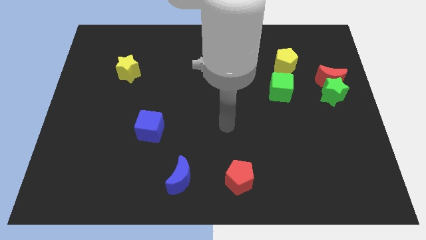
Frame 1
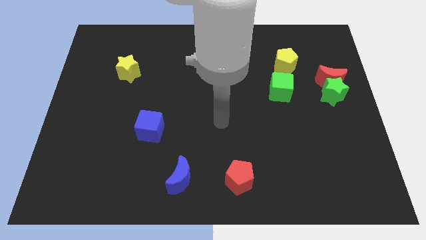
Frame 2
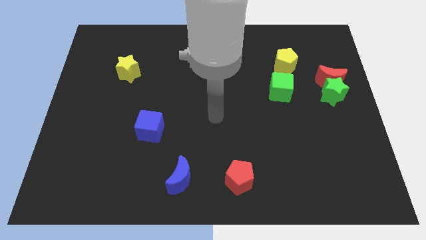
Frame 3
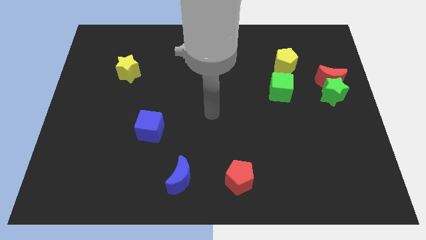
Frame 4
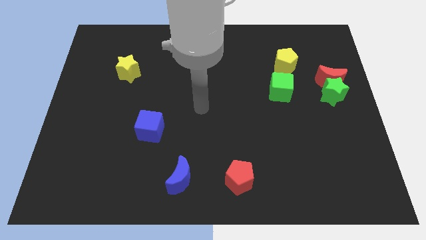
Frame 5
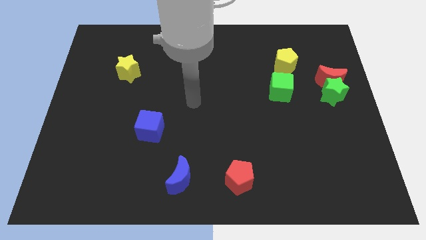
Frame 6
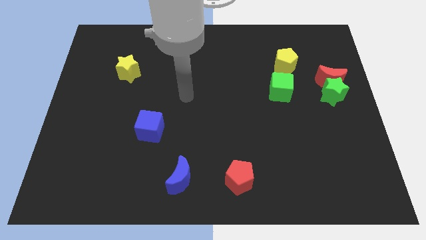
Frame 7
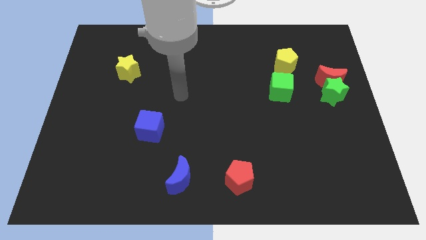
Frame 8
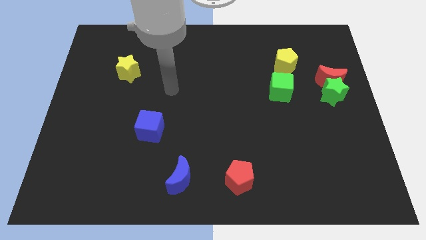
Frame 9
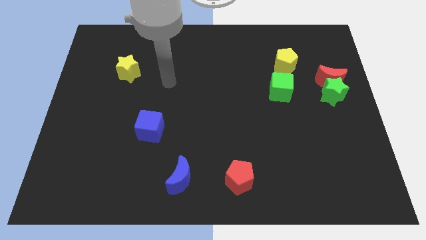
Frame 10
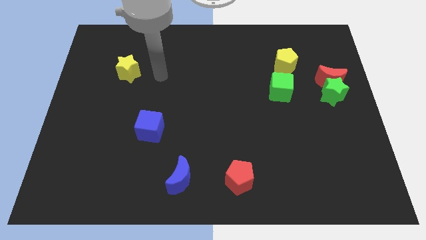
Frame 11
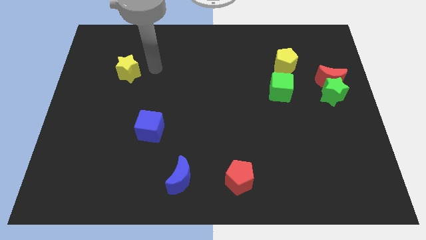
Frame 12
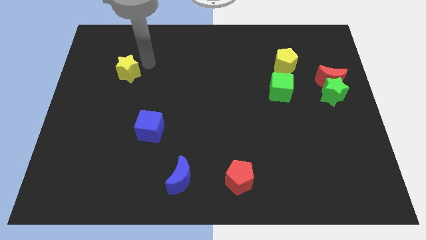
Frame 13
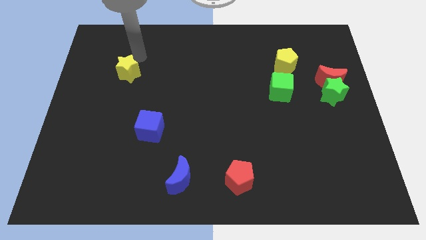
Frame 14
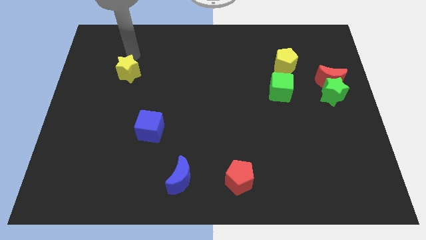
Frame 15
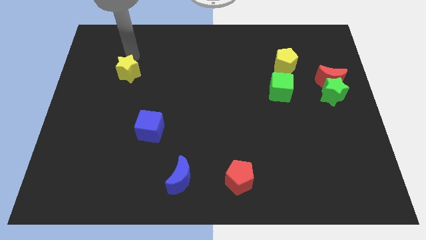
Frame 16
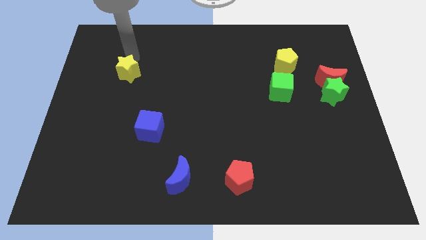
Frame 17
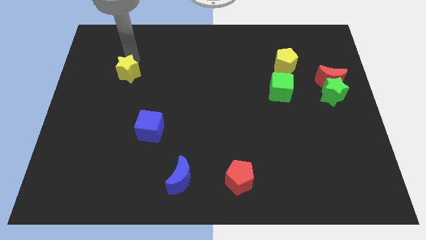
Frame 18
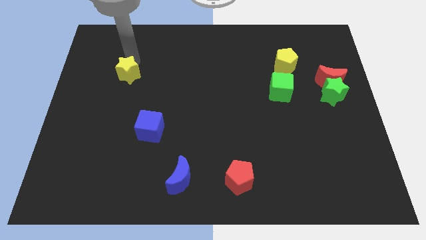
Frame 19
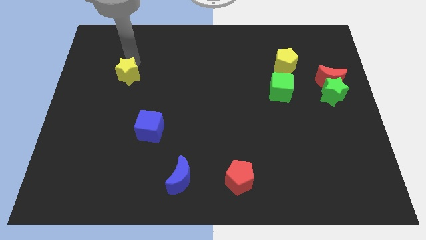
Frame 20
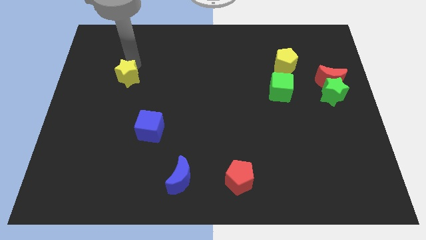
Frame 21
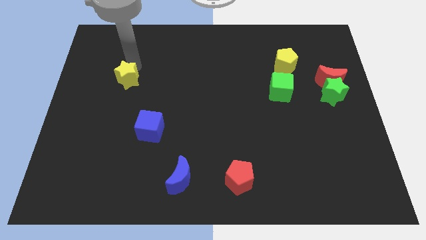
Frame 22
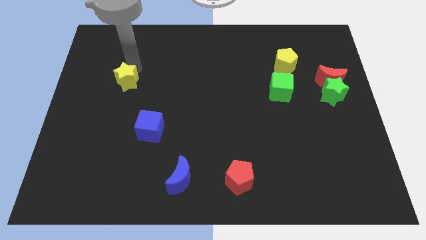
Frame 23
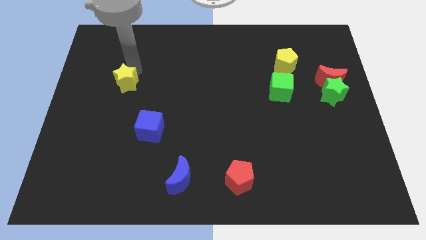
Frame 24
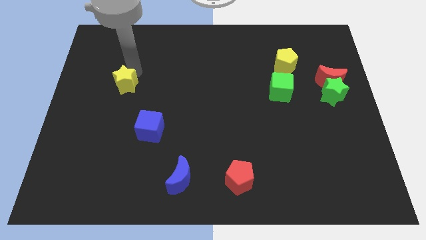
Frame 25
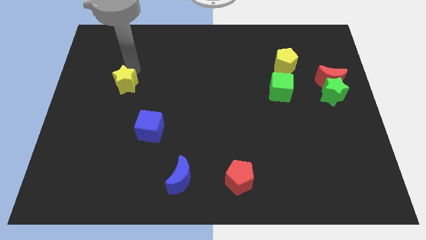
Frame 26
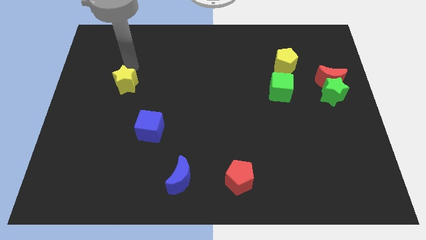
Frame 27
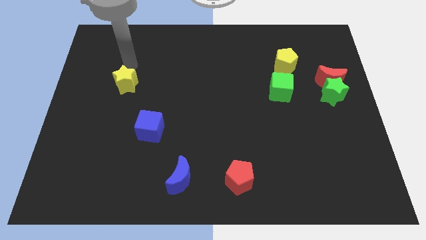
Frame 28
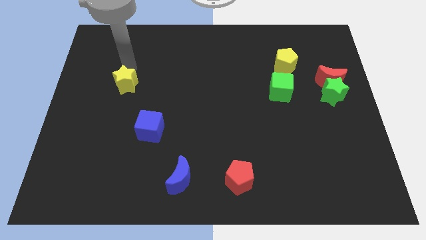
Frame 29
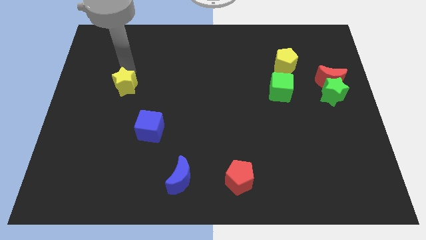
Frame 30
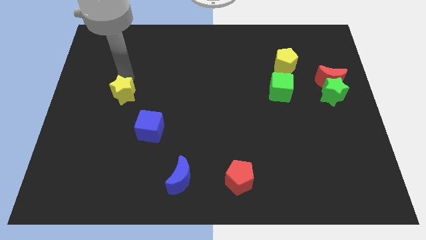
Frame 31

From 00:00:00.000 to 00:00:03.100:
push the yellow star slightly downwards

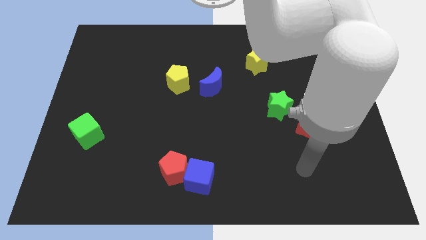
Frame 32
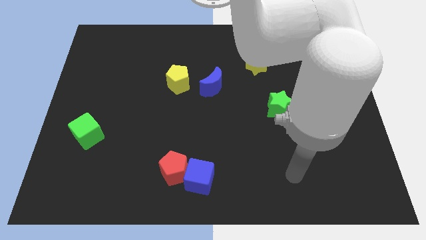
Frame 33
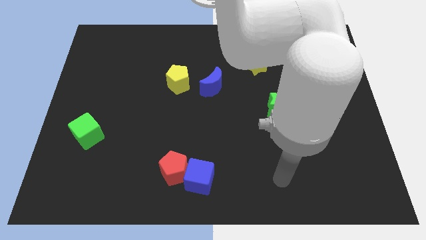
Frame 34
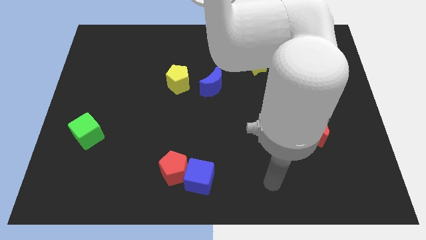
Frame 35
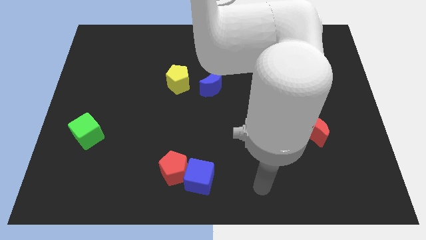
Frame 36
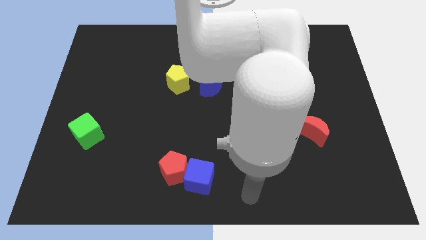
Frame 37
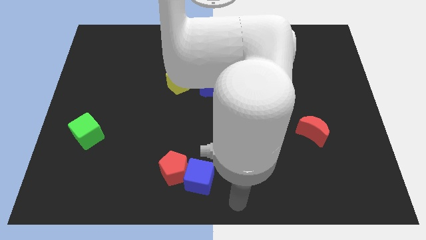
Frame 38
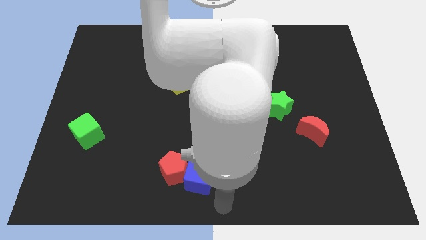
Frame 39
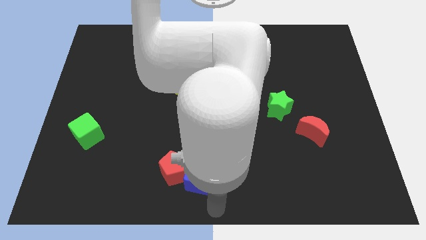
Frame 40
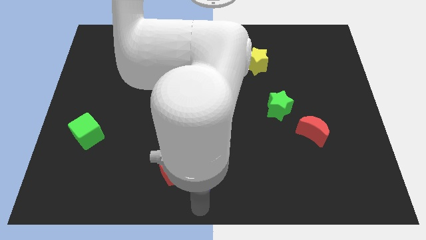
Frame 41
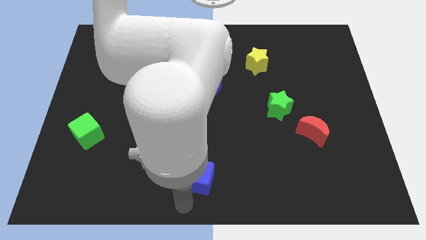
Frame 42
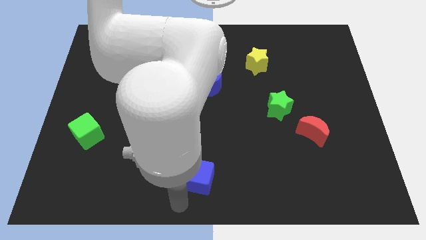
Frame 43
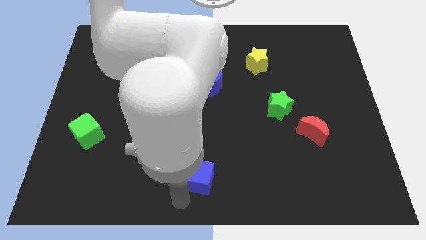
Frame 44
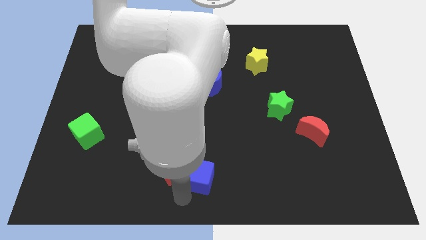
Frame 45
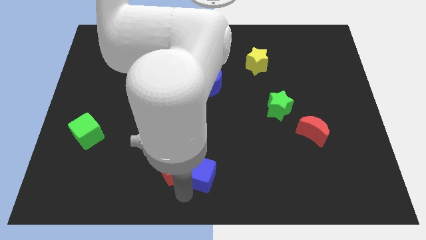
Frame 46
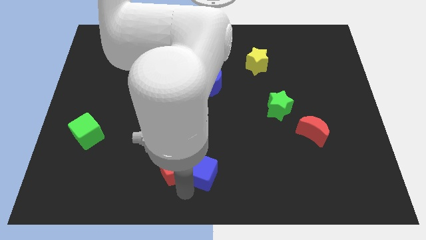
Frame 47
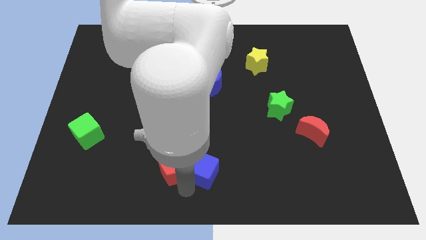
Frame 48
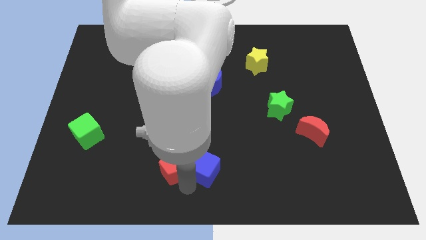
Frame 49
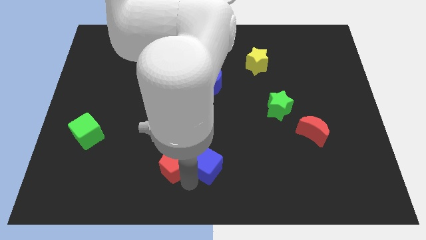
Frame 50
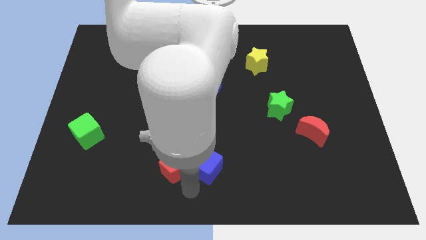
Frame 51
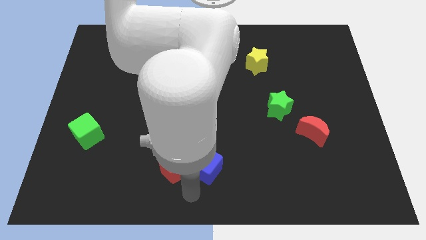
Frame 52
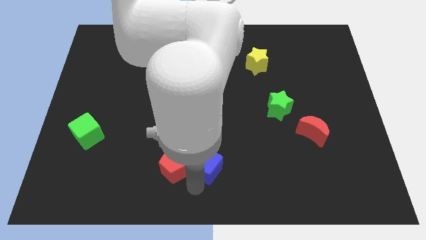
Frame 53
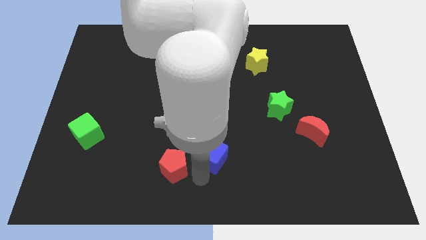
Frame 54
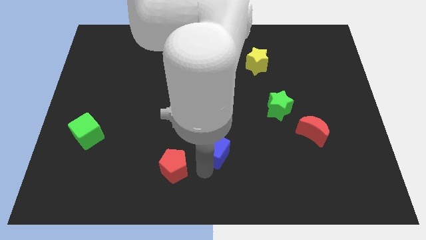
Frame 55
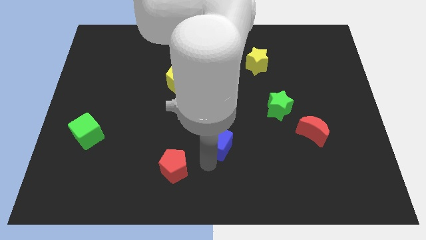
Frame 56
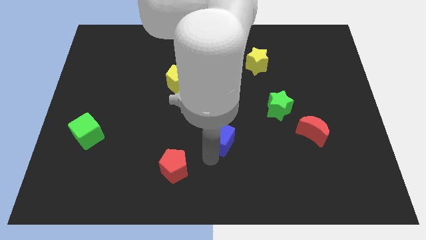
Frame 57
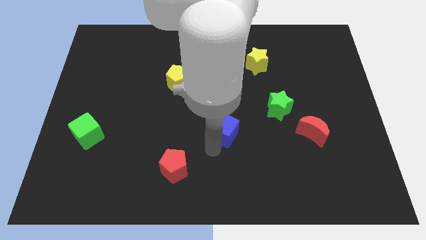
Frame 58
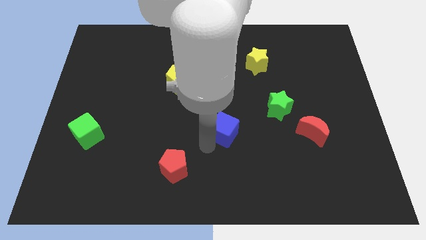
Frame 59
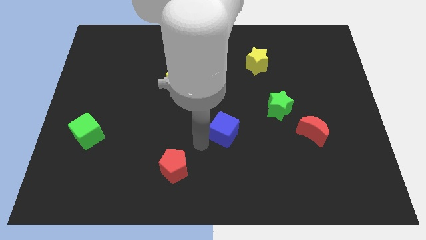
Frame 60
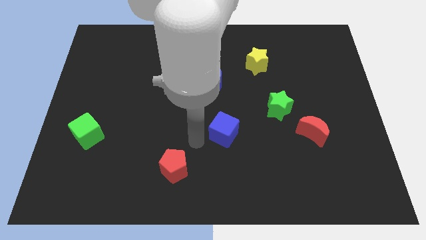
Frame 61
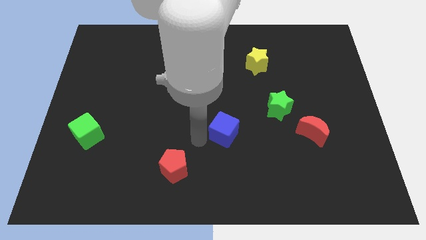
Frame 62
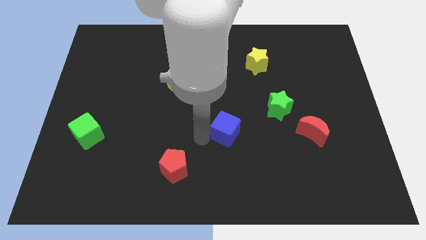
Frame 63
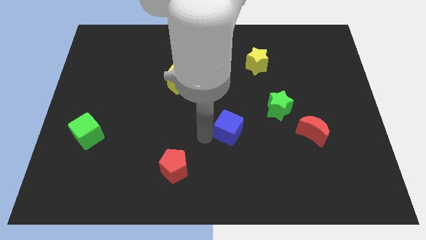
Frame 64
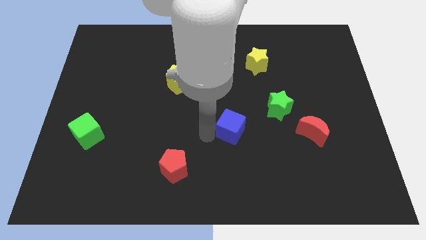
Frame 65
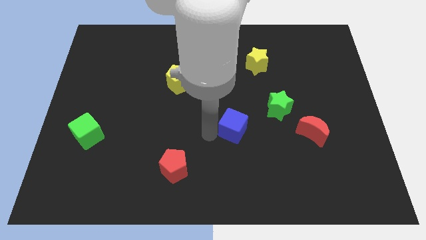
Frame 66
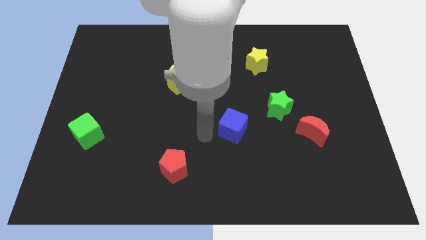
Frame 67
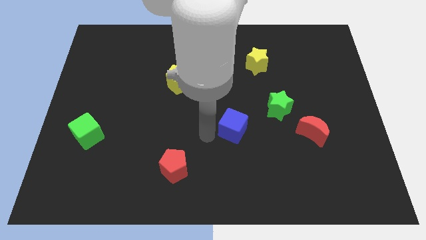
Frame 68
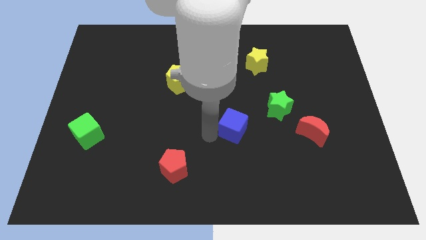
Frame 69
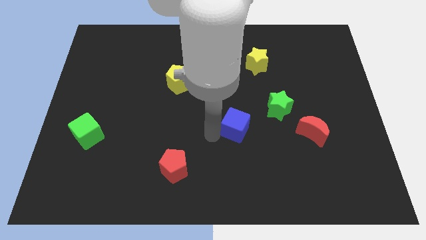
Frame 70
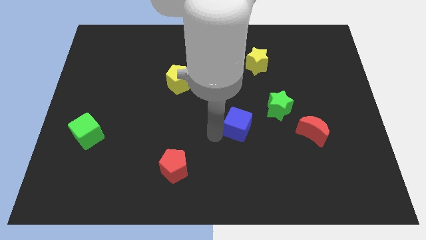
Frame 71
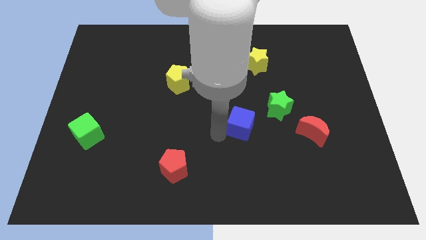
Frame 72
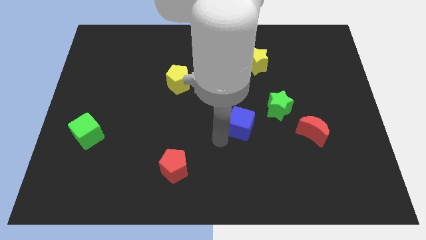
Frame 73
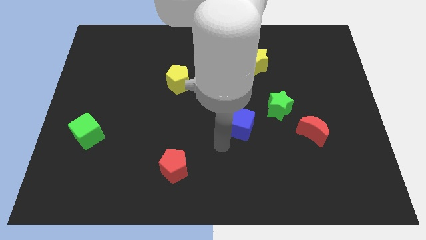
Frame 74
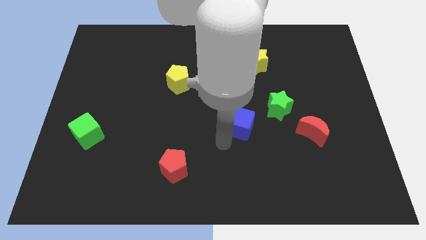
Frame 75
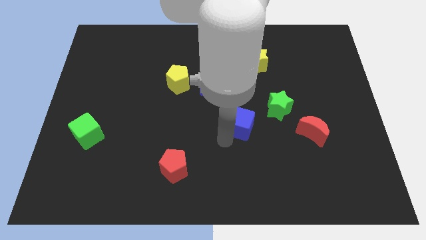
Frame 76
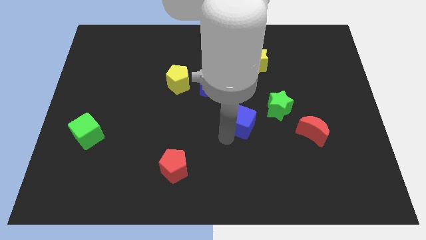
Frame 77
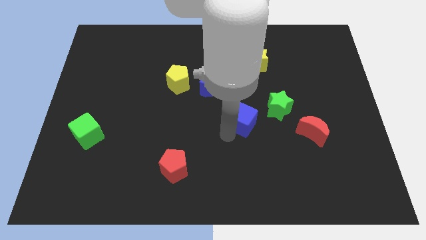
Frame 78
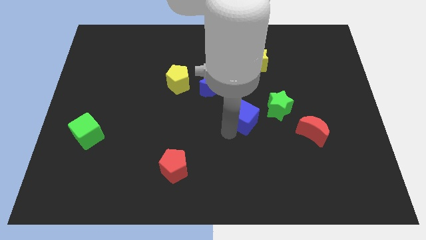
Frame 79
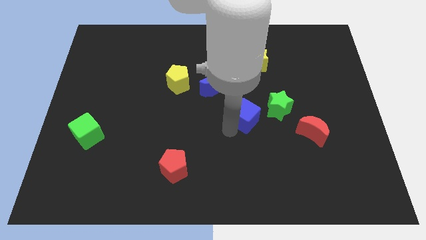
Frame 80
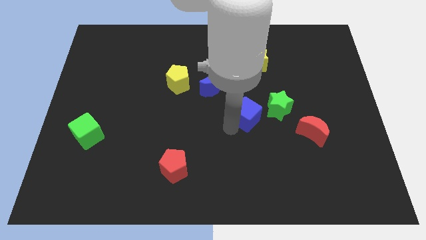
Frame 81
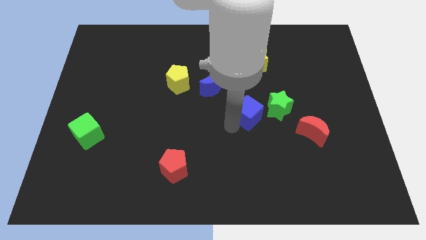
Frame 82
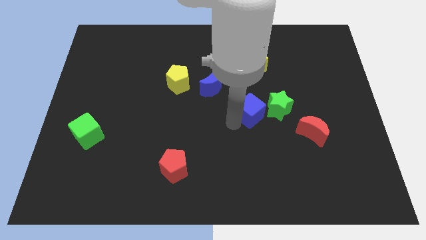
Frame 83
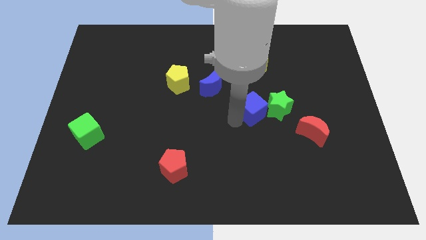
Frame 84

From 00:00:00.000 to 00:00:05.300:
slide the blue cube upwards and right diagonally

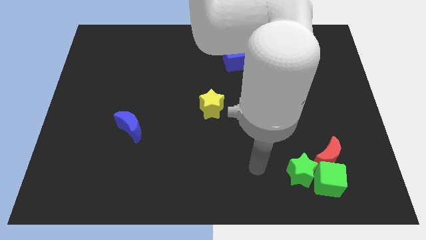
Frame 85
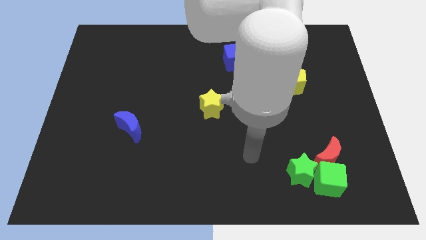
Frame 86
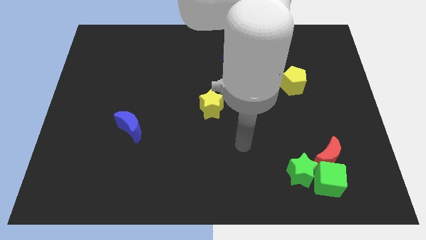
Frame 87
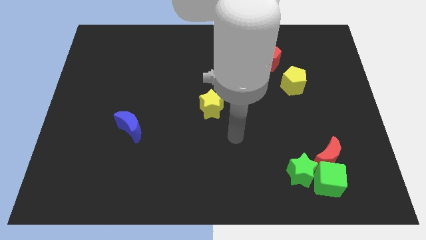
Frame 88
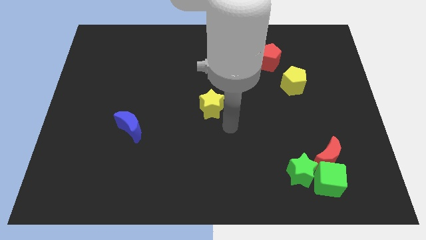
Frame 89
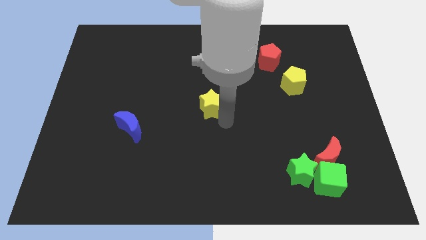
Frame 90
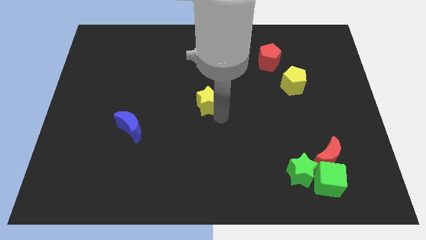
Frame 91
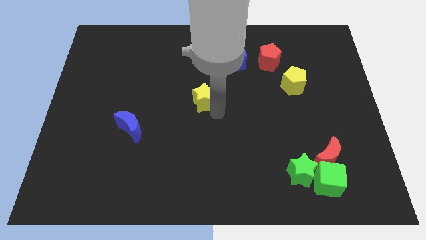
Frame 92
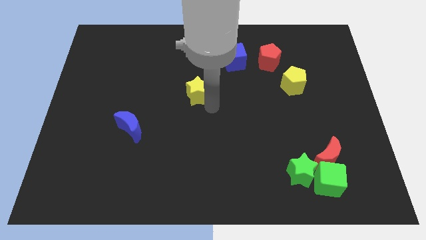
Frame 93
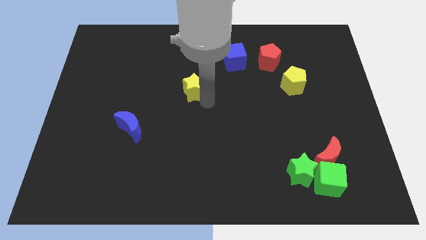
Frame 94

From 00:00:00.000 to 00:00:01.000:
push the yellow star a bit up and left
